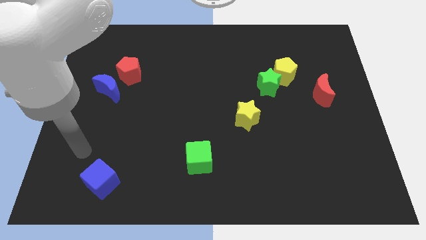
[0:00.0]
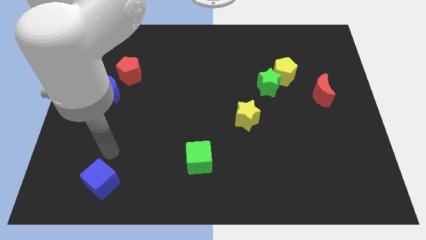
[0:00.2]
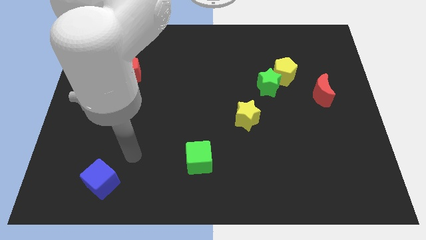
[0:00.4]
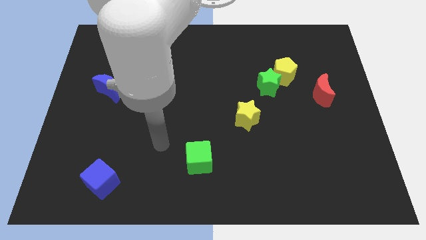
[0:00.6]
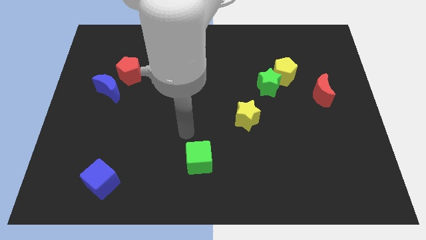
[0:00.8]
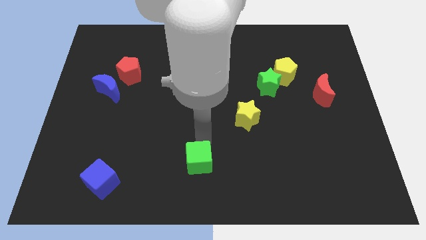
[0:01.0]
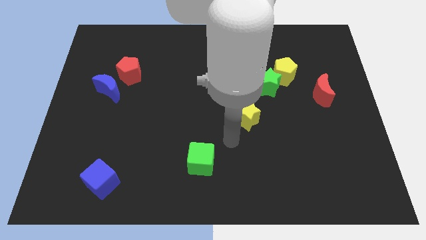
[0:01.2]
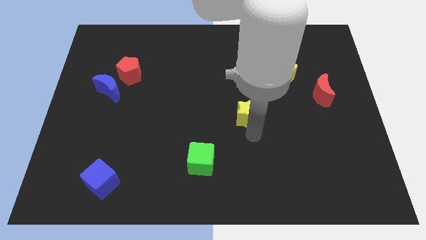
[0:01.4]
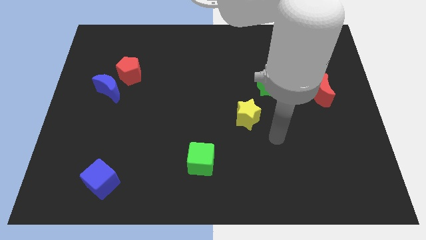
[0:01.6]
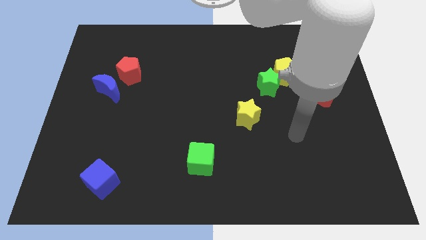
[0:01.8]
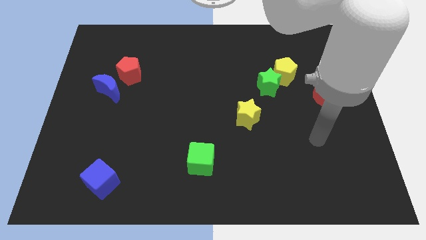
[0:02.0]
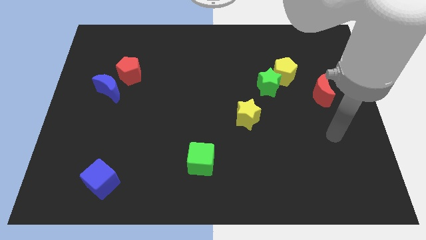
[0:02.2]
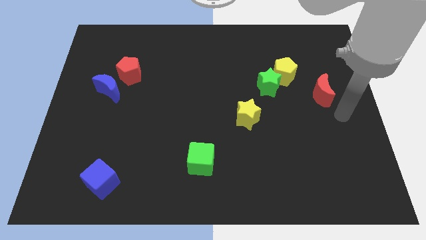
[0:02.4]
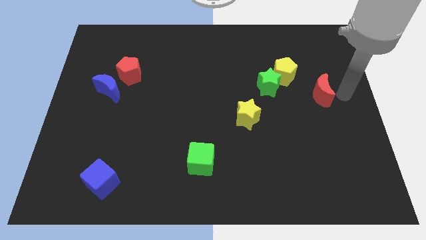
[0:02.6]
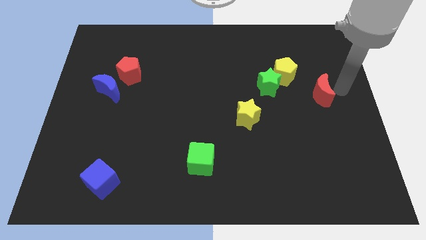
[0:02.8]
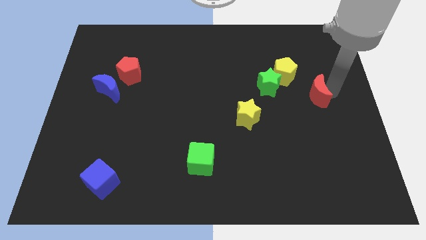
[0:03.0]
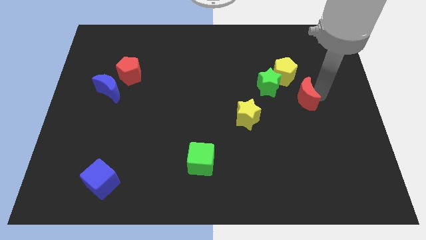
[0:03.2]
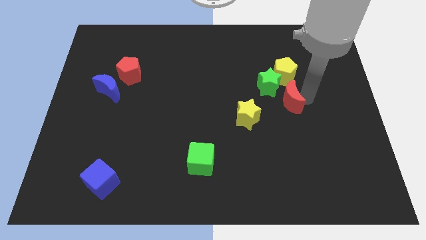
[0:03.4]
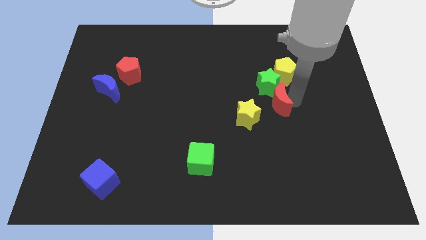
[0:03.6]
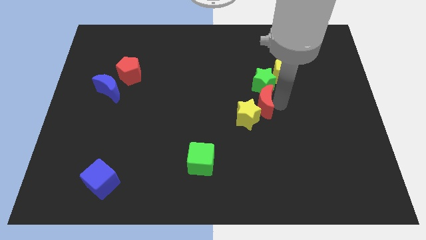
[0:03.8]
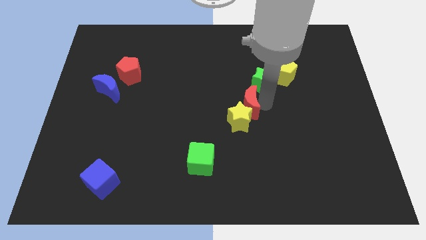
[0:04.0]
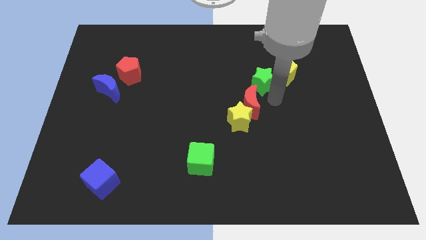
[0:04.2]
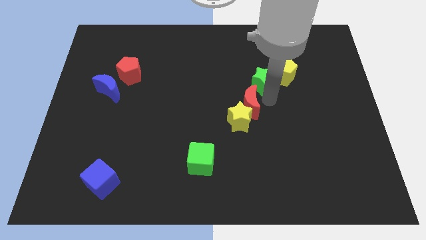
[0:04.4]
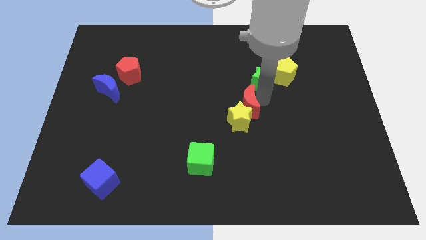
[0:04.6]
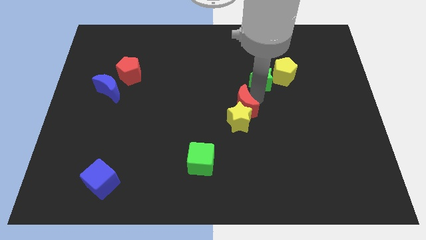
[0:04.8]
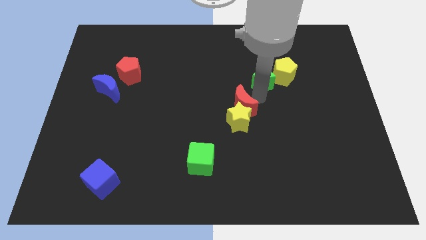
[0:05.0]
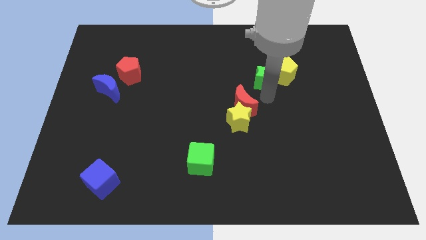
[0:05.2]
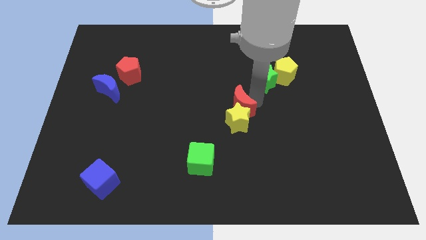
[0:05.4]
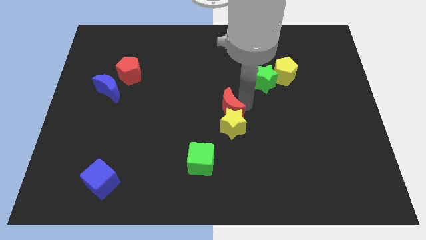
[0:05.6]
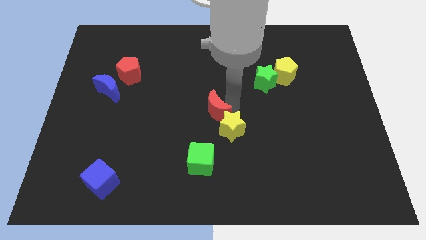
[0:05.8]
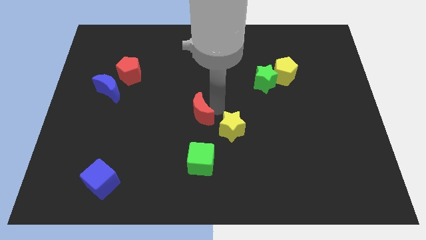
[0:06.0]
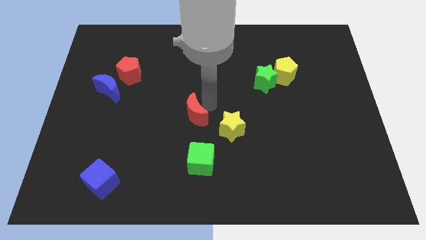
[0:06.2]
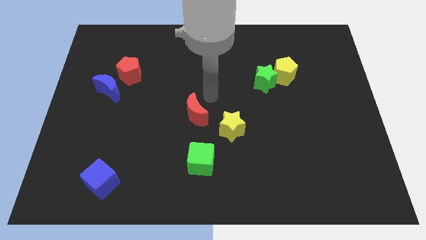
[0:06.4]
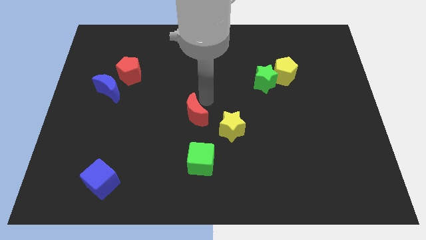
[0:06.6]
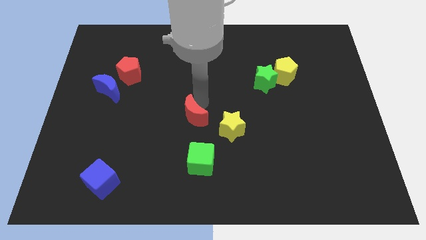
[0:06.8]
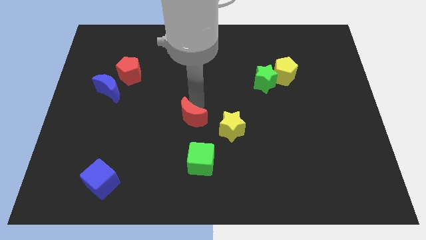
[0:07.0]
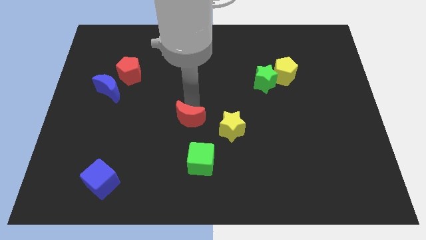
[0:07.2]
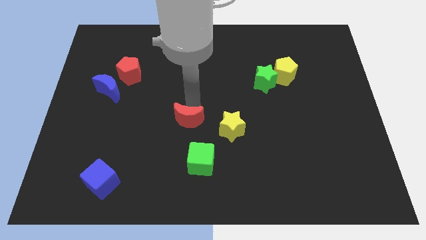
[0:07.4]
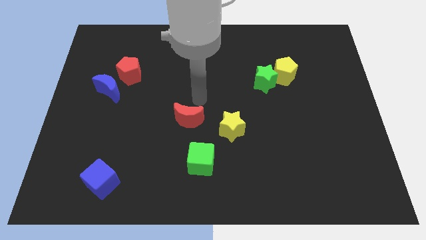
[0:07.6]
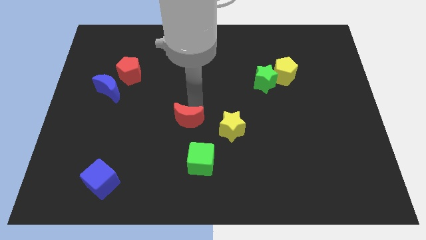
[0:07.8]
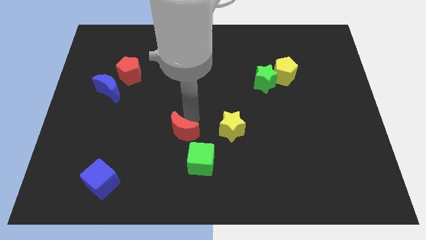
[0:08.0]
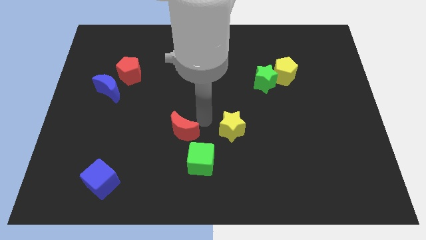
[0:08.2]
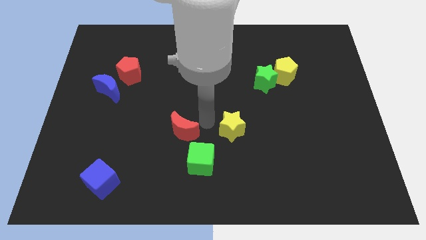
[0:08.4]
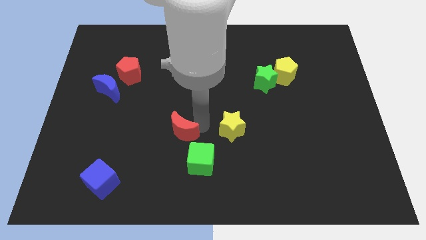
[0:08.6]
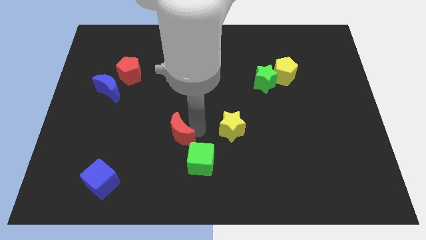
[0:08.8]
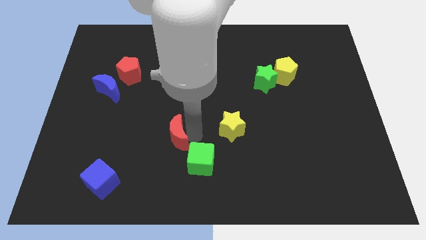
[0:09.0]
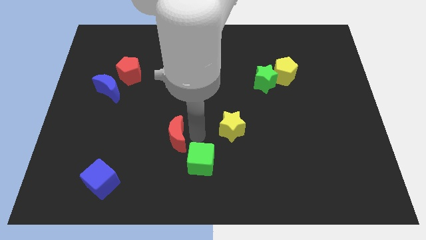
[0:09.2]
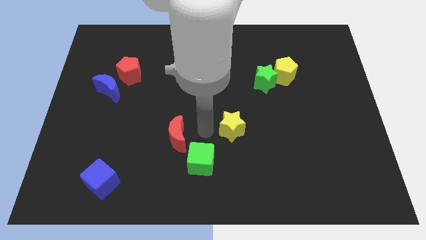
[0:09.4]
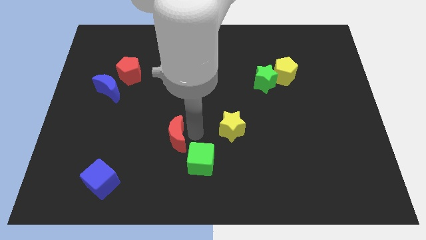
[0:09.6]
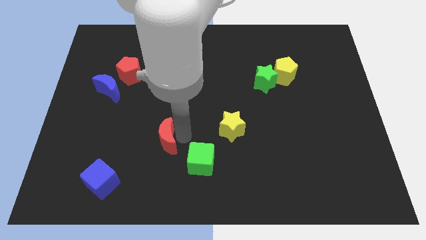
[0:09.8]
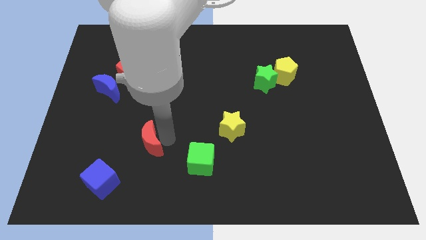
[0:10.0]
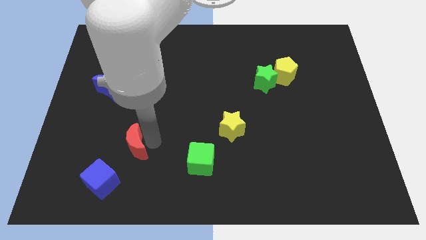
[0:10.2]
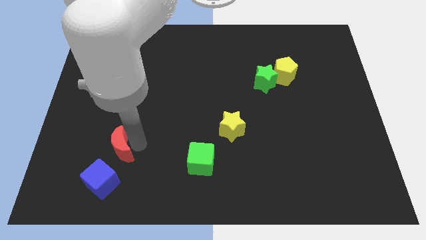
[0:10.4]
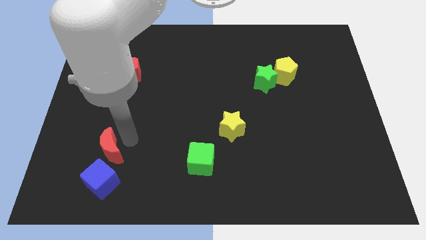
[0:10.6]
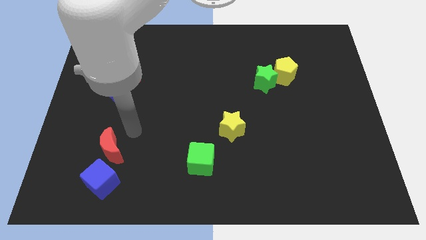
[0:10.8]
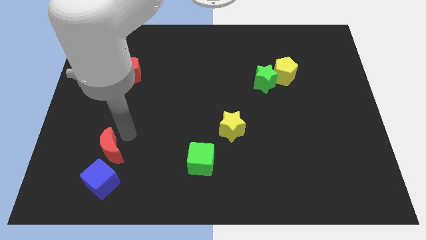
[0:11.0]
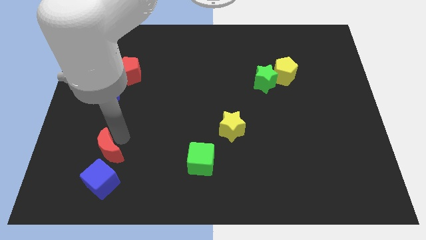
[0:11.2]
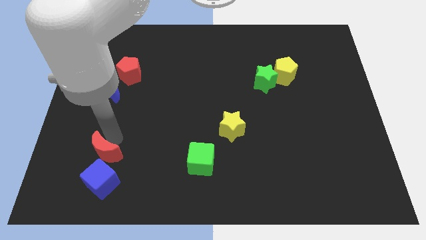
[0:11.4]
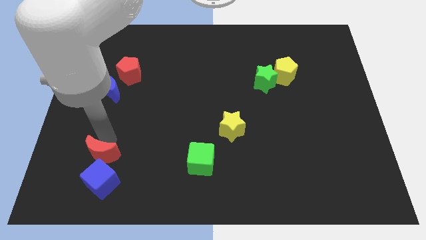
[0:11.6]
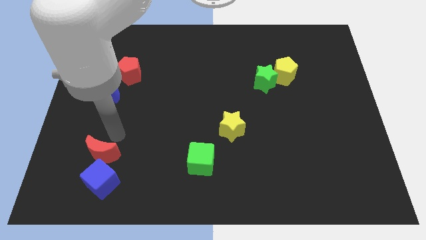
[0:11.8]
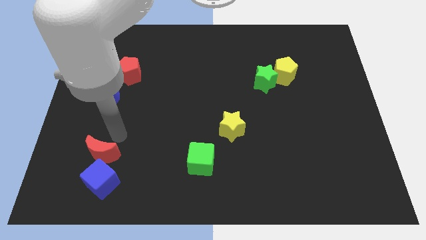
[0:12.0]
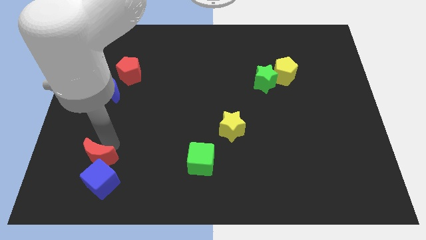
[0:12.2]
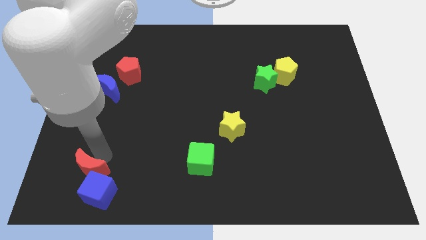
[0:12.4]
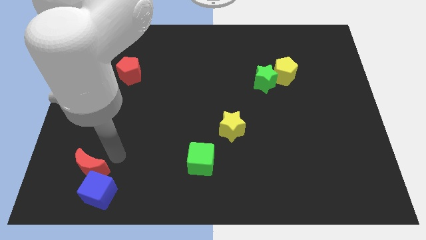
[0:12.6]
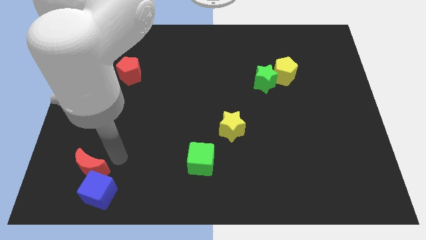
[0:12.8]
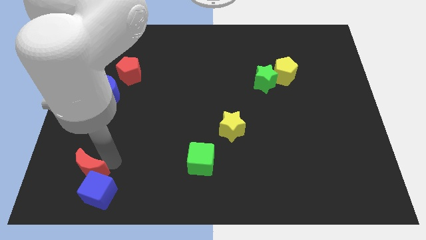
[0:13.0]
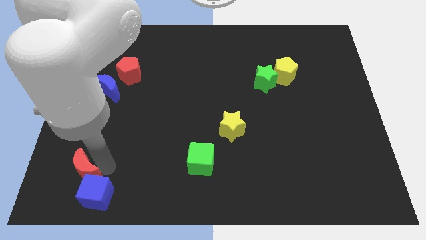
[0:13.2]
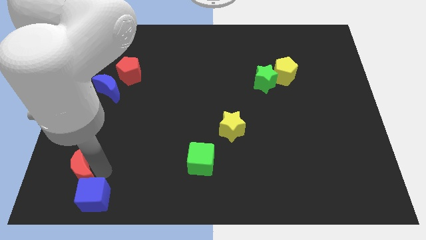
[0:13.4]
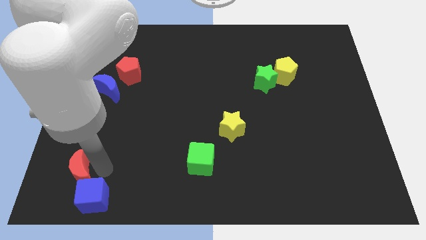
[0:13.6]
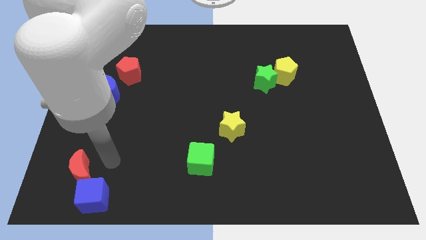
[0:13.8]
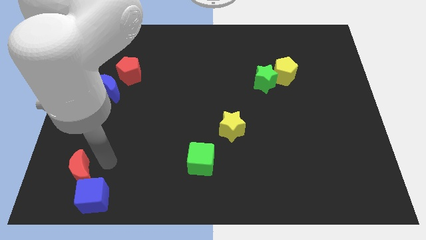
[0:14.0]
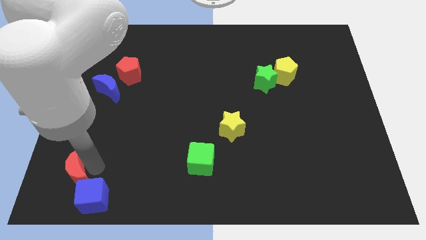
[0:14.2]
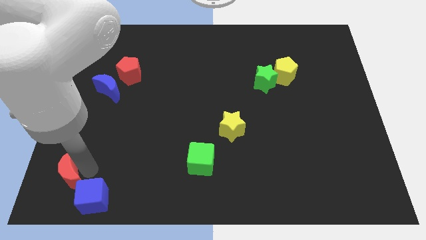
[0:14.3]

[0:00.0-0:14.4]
slide the red moon to the bottom left corner
